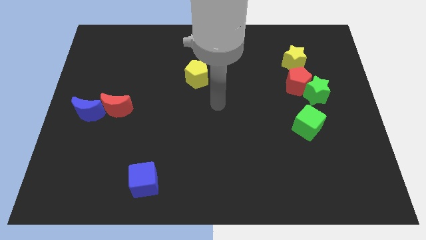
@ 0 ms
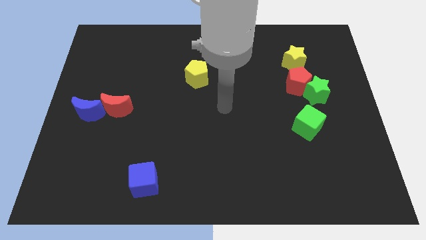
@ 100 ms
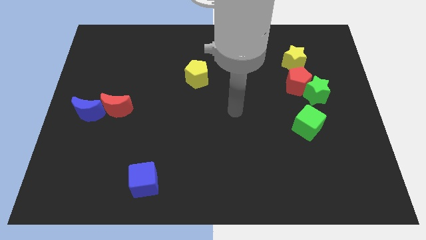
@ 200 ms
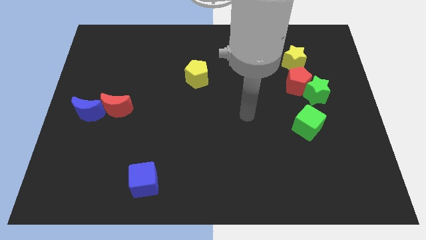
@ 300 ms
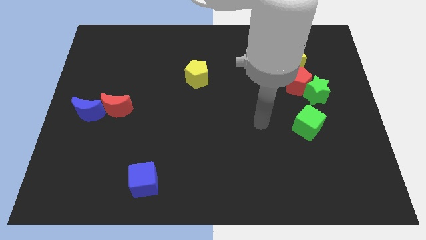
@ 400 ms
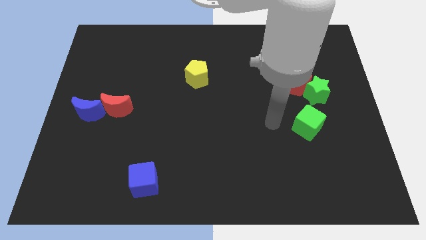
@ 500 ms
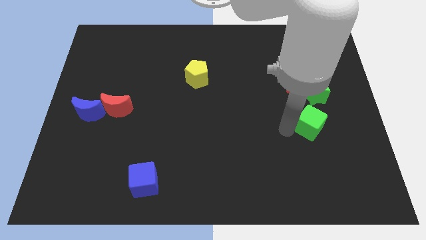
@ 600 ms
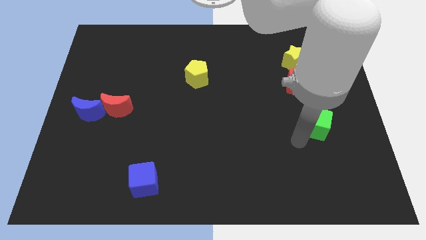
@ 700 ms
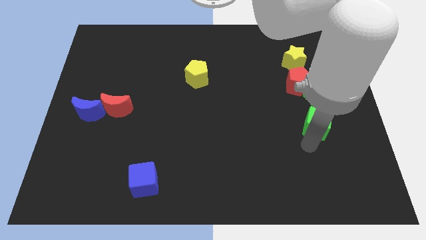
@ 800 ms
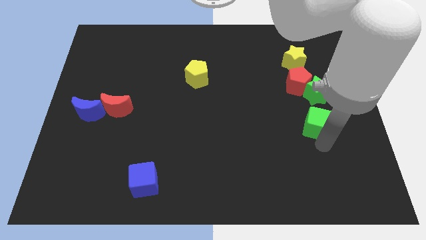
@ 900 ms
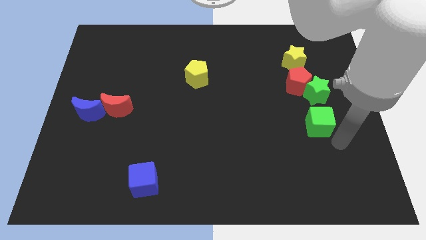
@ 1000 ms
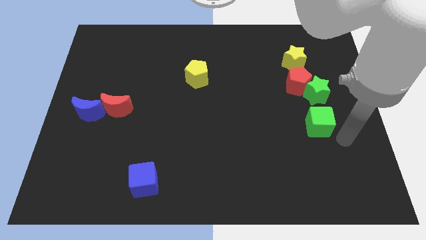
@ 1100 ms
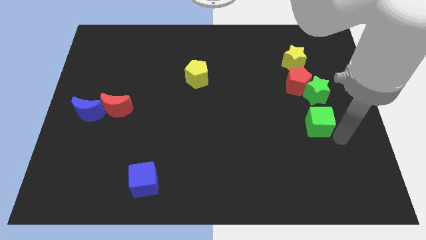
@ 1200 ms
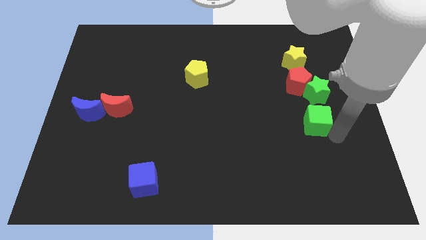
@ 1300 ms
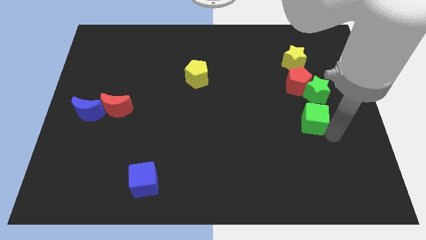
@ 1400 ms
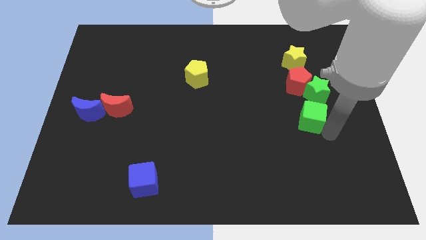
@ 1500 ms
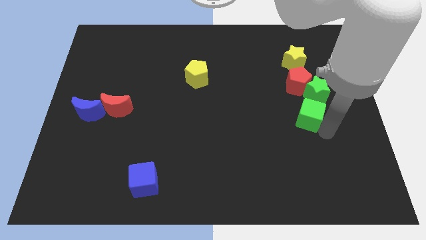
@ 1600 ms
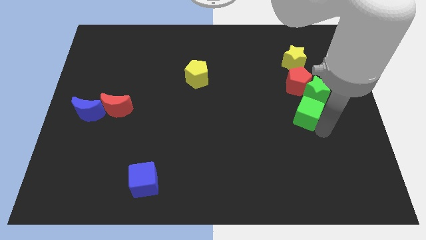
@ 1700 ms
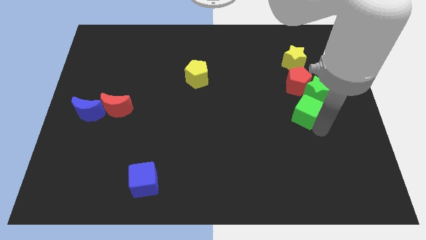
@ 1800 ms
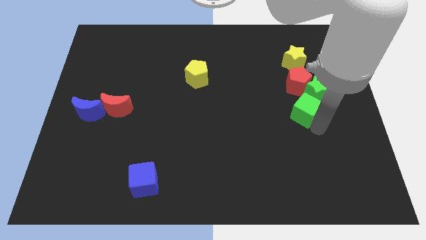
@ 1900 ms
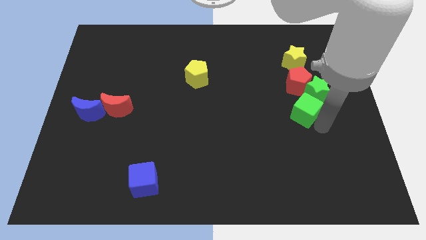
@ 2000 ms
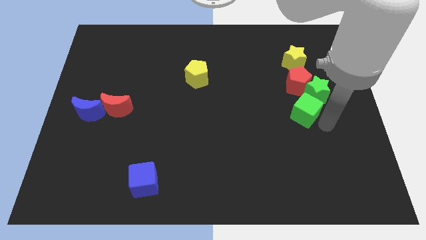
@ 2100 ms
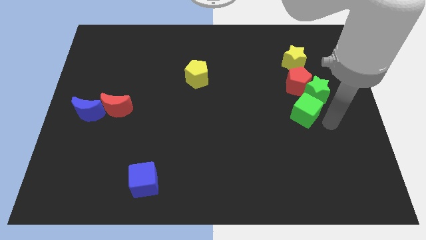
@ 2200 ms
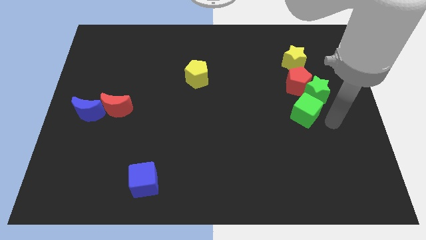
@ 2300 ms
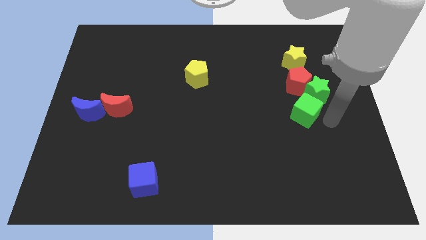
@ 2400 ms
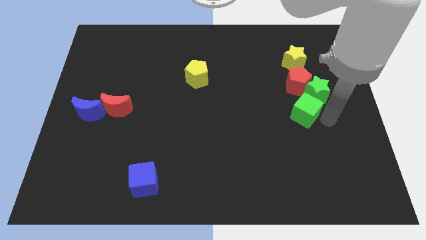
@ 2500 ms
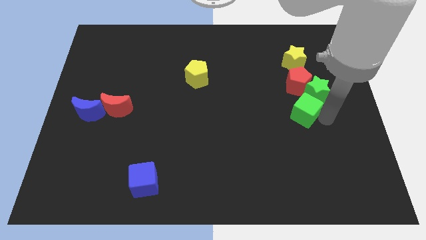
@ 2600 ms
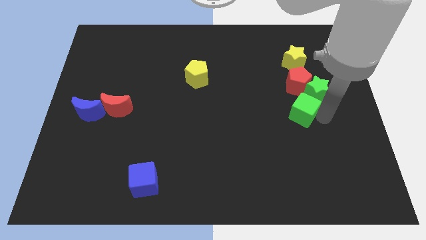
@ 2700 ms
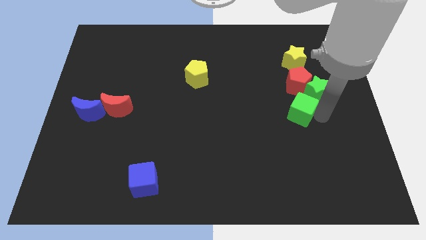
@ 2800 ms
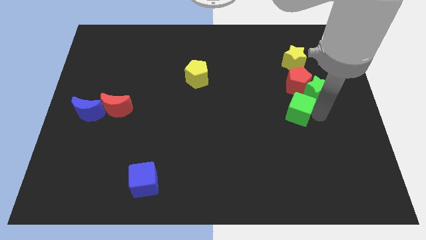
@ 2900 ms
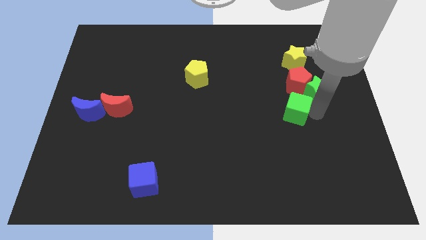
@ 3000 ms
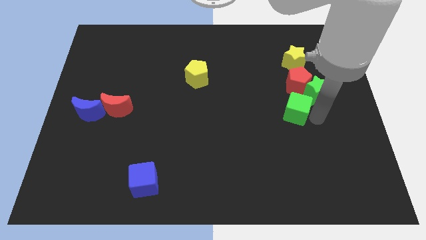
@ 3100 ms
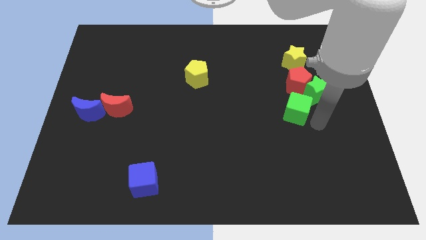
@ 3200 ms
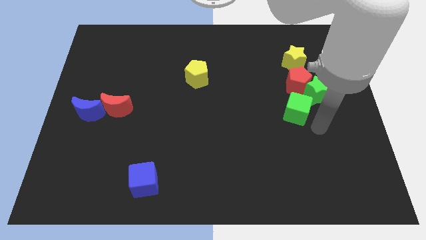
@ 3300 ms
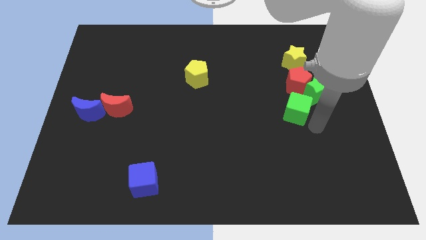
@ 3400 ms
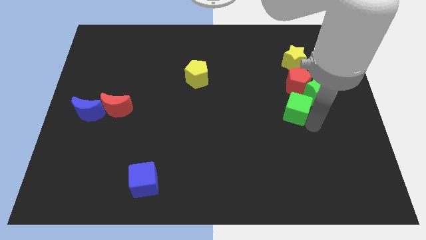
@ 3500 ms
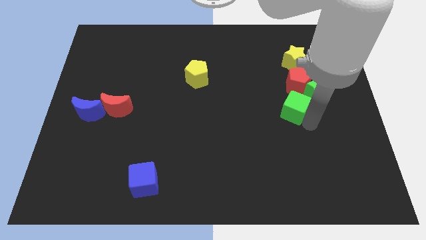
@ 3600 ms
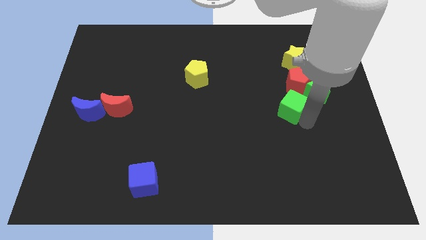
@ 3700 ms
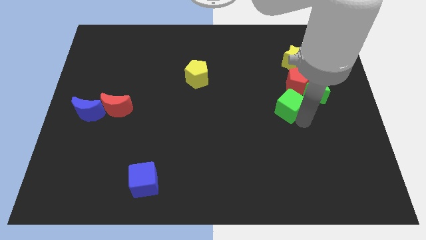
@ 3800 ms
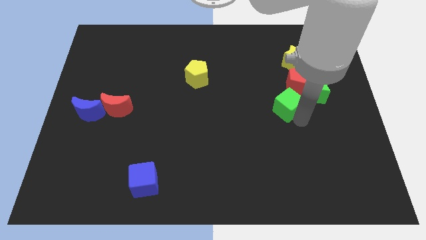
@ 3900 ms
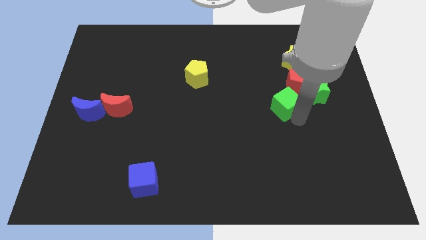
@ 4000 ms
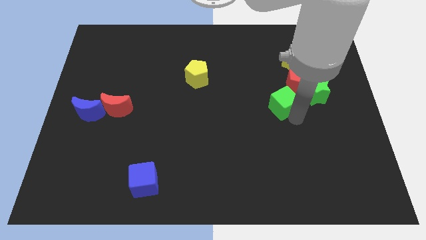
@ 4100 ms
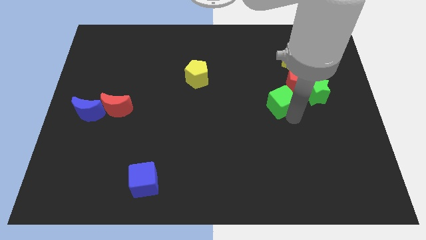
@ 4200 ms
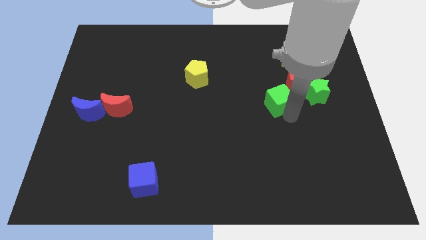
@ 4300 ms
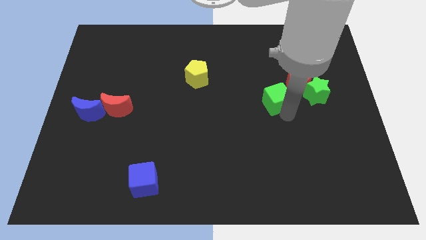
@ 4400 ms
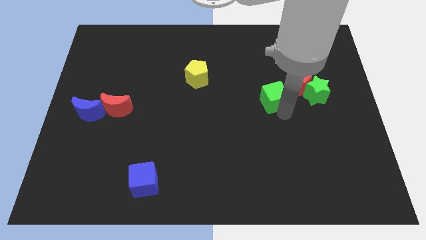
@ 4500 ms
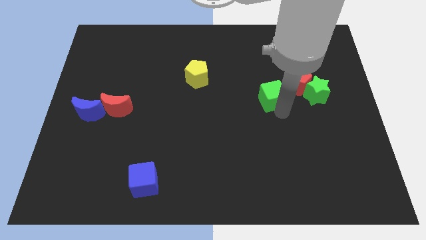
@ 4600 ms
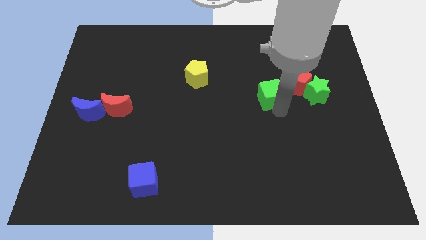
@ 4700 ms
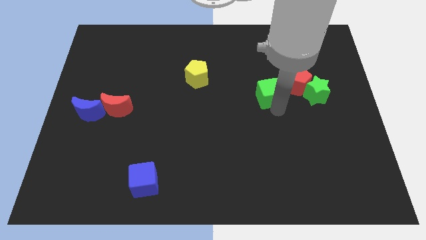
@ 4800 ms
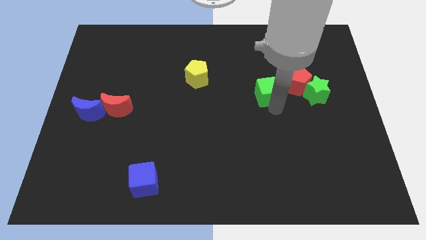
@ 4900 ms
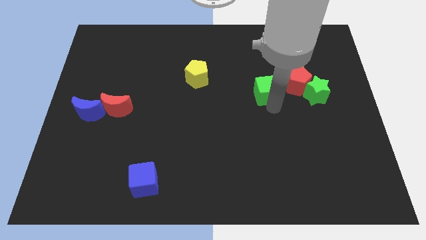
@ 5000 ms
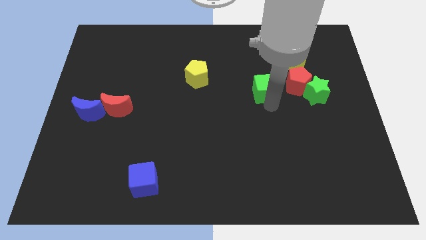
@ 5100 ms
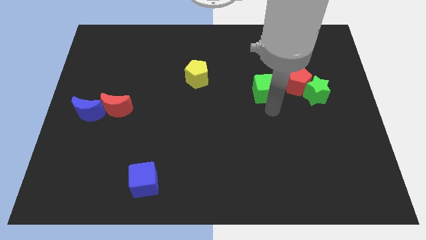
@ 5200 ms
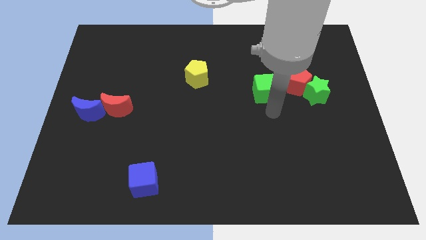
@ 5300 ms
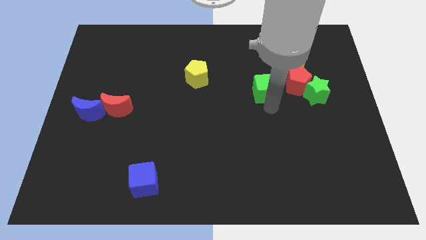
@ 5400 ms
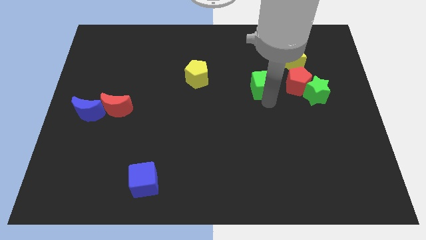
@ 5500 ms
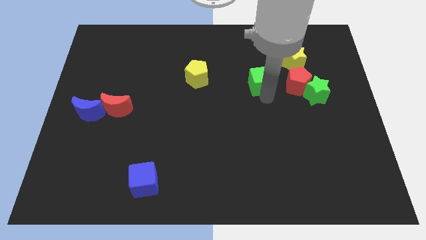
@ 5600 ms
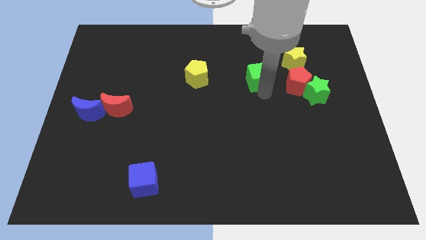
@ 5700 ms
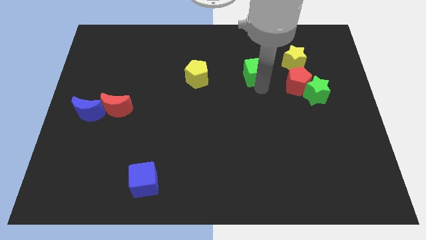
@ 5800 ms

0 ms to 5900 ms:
push the green cube to the left of the yellow star
